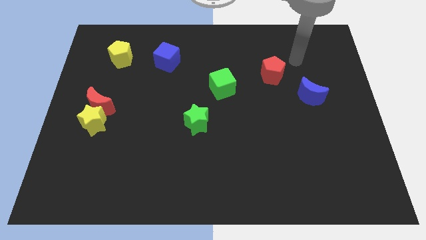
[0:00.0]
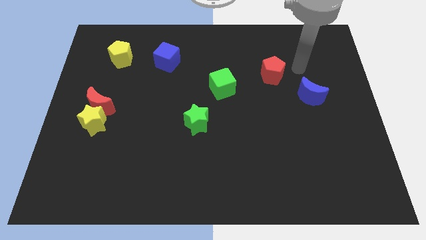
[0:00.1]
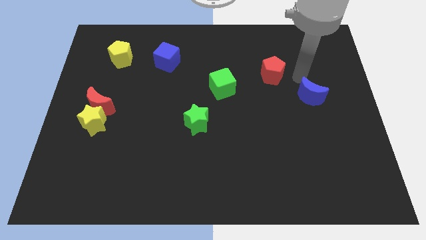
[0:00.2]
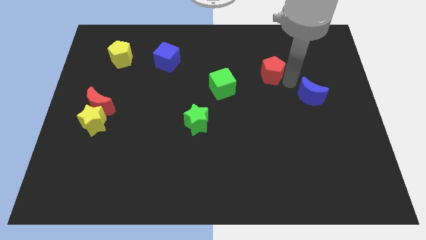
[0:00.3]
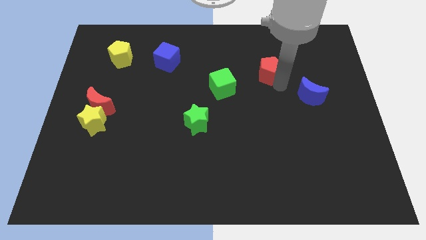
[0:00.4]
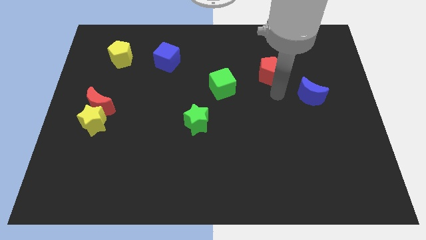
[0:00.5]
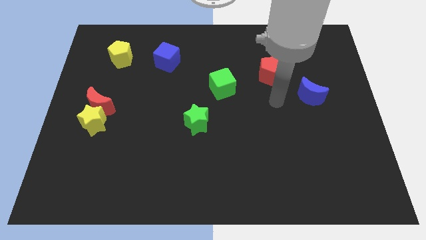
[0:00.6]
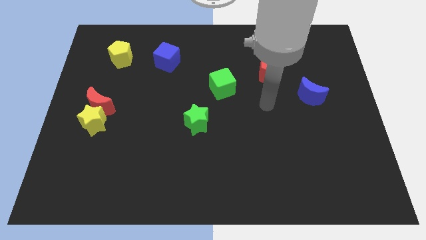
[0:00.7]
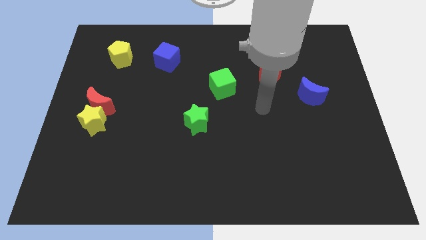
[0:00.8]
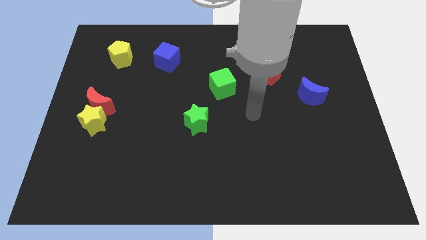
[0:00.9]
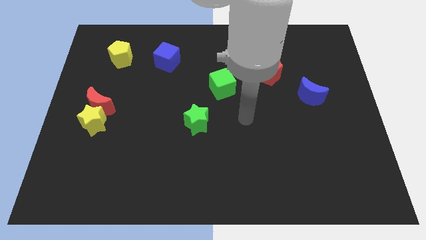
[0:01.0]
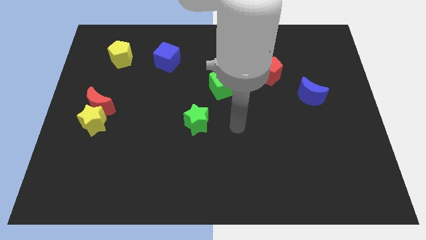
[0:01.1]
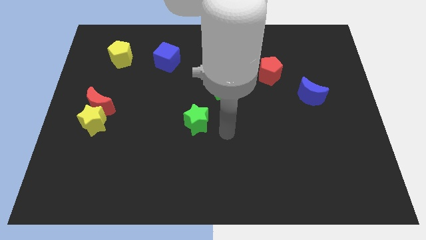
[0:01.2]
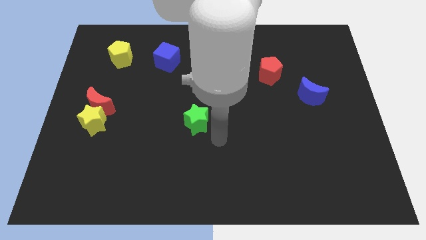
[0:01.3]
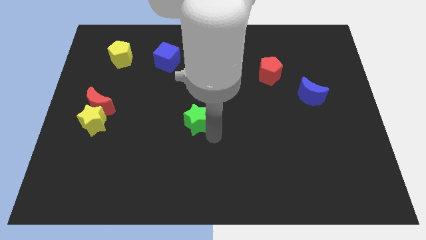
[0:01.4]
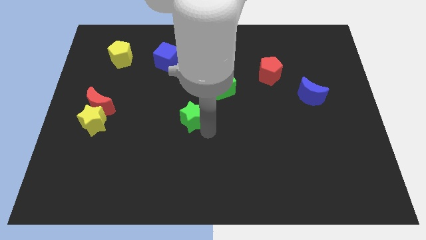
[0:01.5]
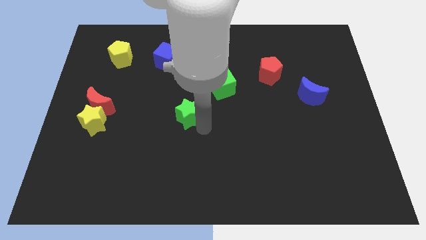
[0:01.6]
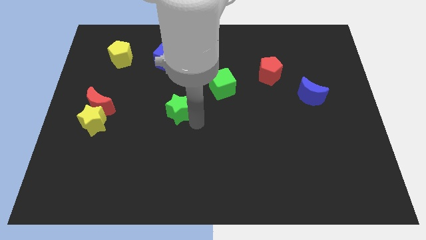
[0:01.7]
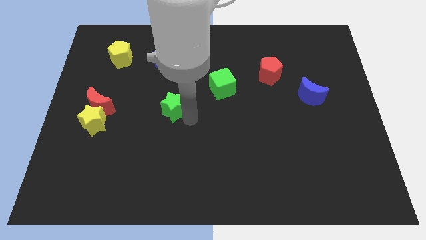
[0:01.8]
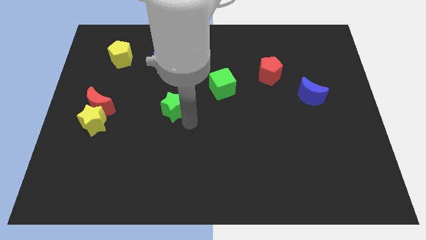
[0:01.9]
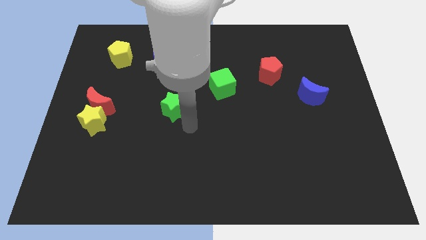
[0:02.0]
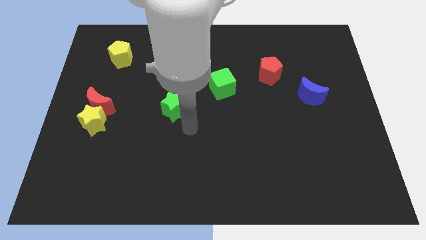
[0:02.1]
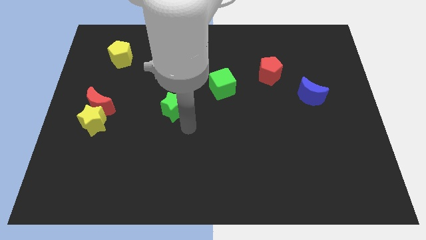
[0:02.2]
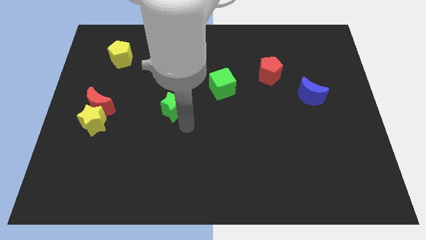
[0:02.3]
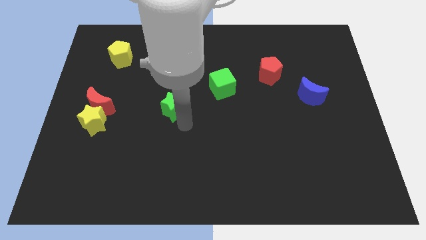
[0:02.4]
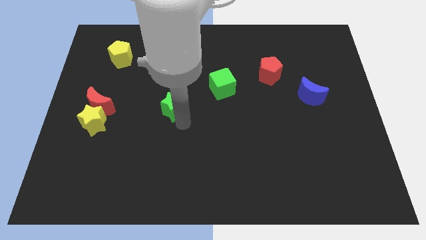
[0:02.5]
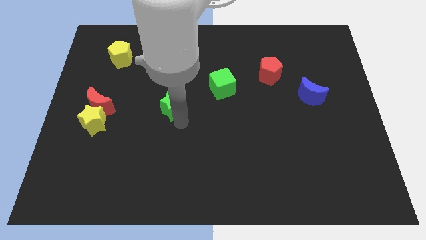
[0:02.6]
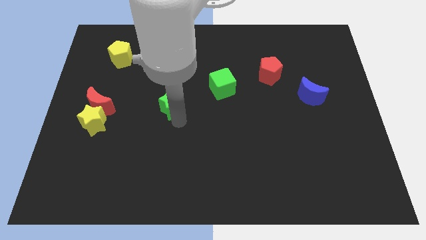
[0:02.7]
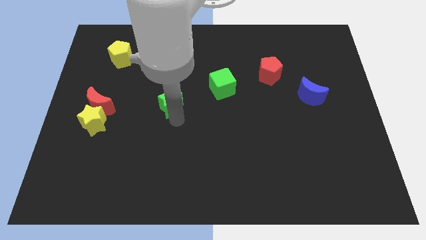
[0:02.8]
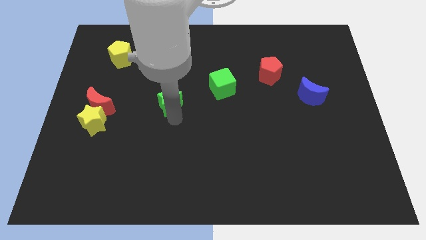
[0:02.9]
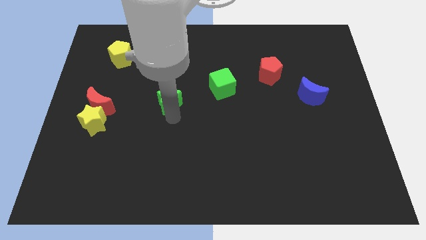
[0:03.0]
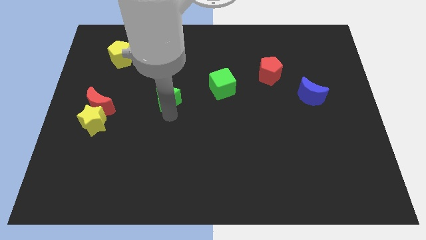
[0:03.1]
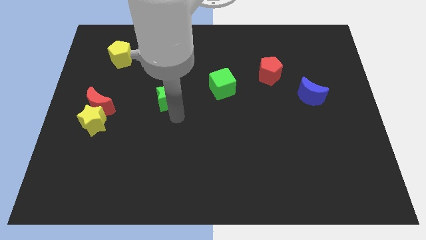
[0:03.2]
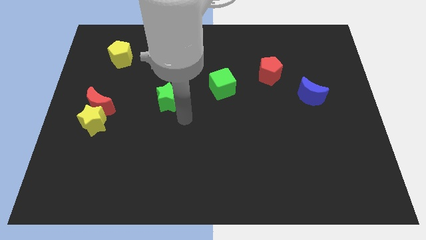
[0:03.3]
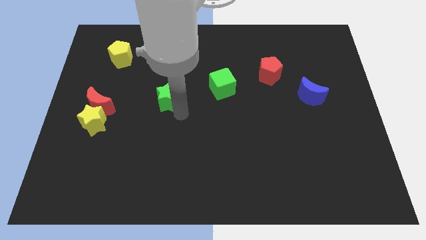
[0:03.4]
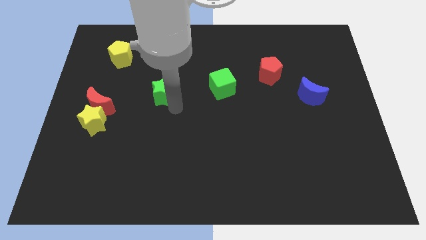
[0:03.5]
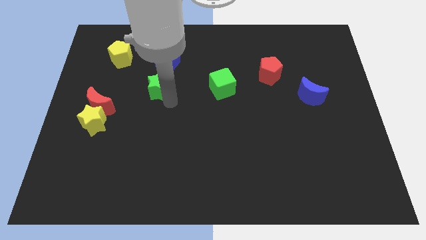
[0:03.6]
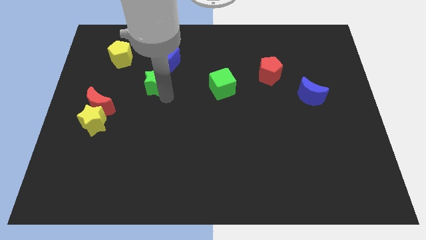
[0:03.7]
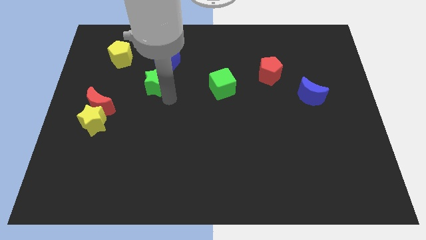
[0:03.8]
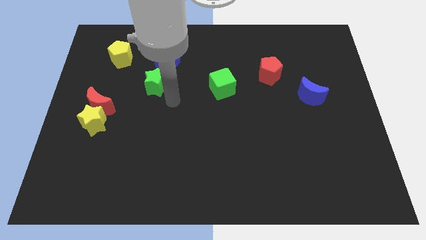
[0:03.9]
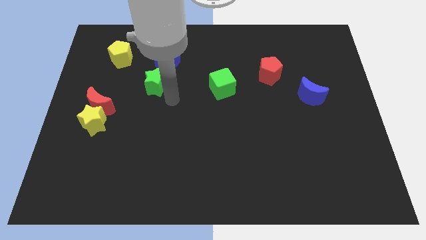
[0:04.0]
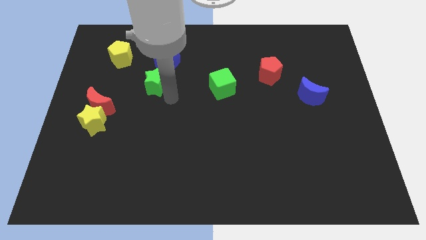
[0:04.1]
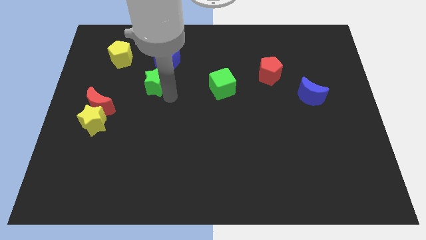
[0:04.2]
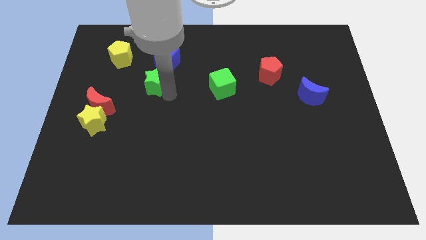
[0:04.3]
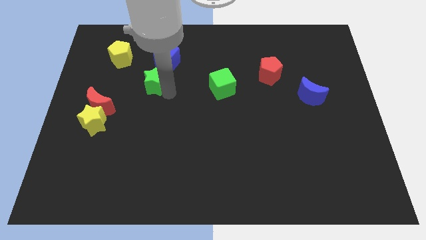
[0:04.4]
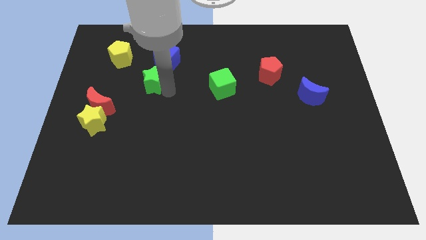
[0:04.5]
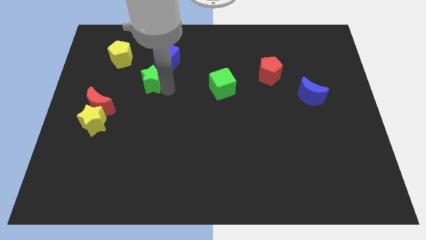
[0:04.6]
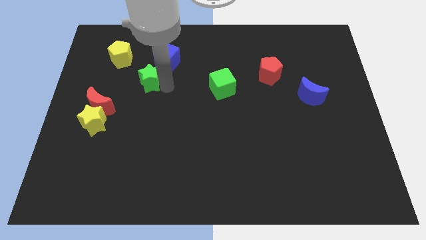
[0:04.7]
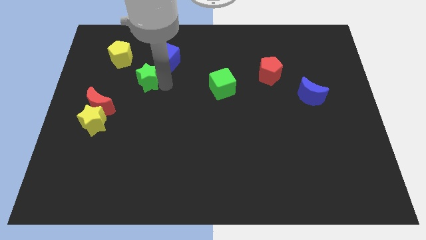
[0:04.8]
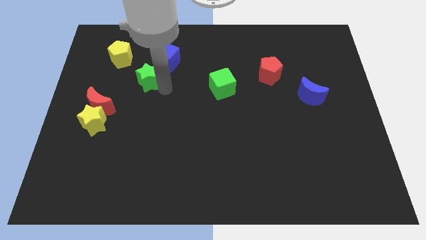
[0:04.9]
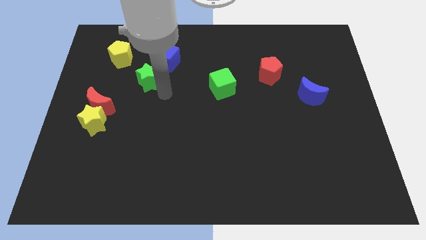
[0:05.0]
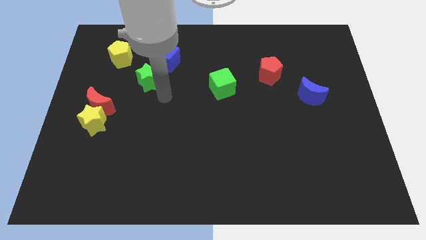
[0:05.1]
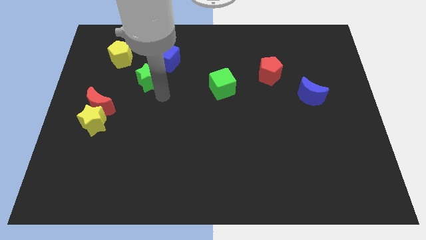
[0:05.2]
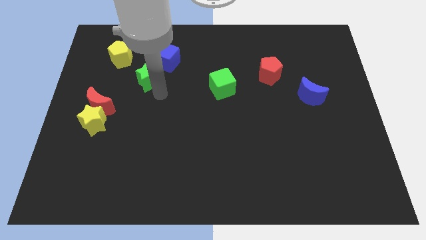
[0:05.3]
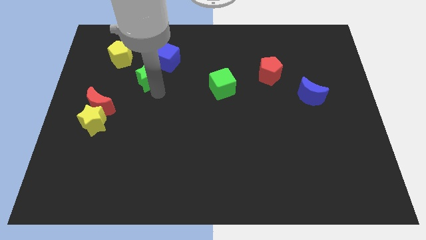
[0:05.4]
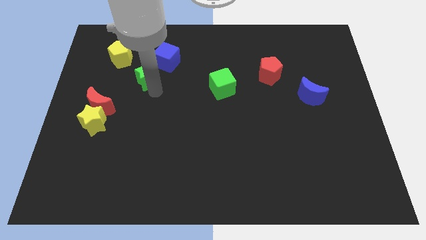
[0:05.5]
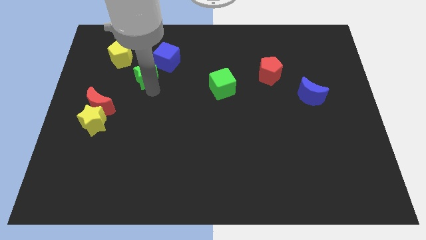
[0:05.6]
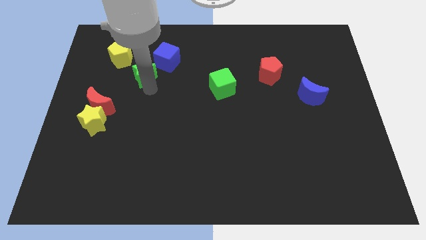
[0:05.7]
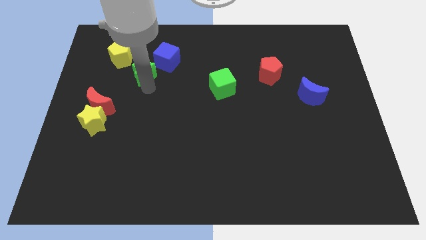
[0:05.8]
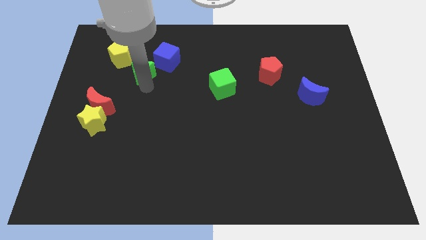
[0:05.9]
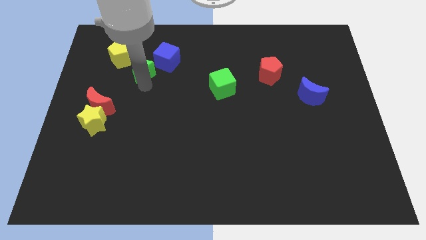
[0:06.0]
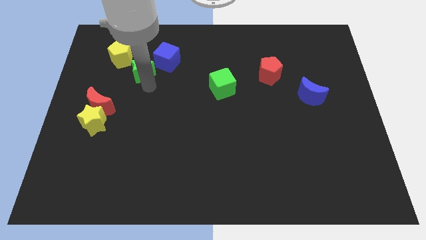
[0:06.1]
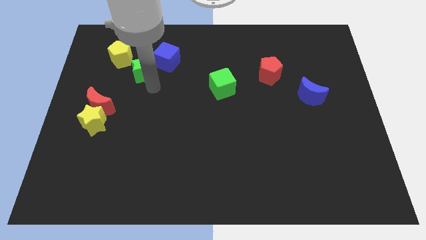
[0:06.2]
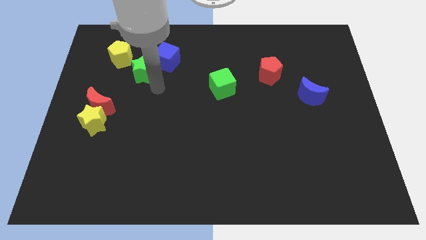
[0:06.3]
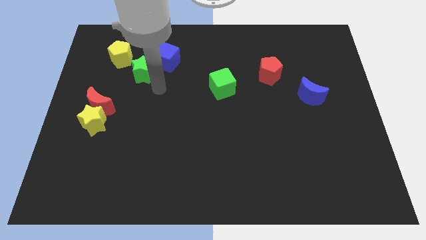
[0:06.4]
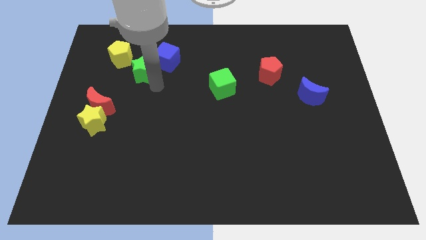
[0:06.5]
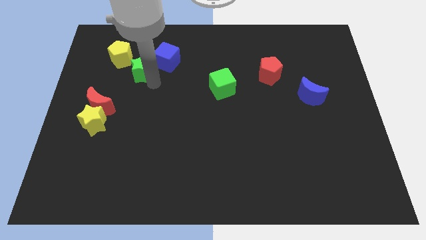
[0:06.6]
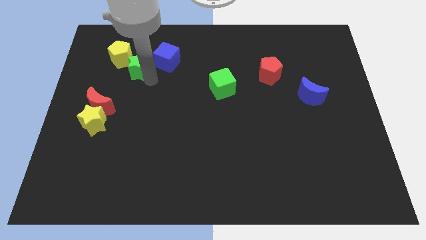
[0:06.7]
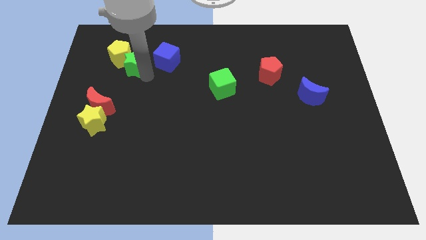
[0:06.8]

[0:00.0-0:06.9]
move the green star to the yellow pentagon
